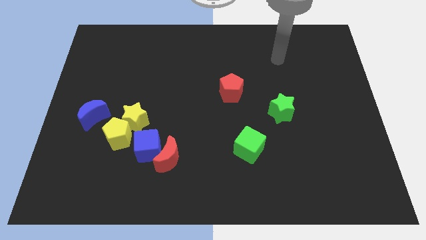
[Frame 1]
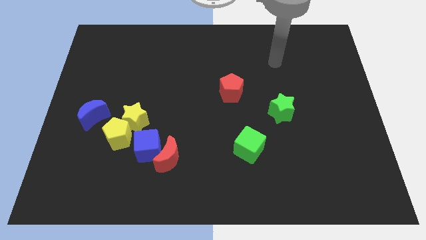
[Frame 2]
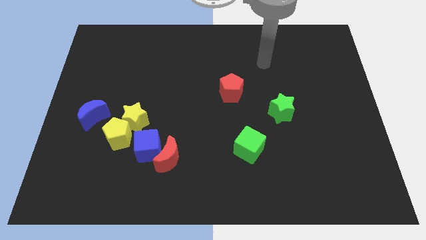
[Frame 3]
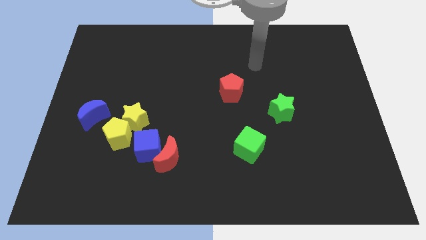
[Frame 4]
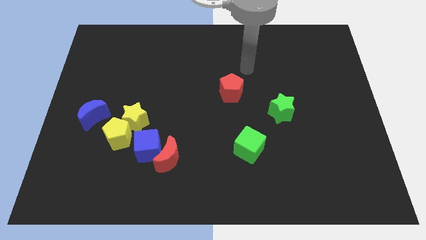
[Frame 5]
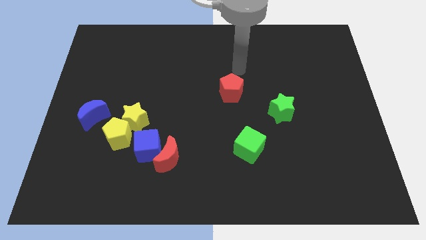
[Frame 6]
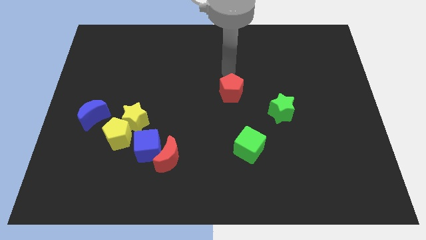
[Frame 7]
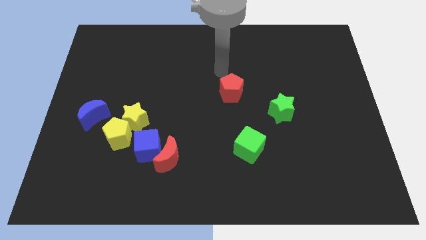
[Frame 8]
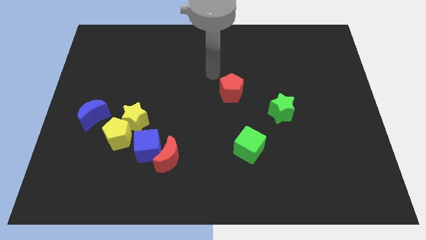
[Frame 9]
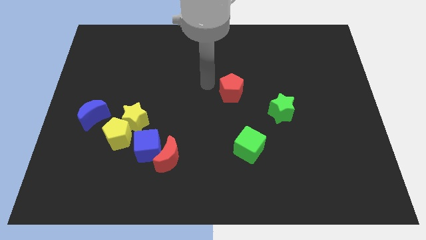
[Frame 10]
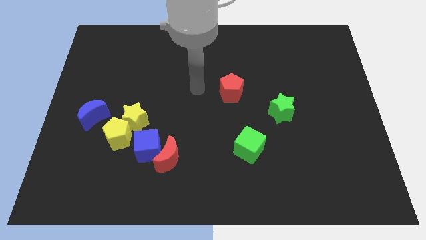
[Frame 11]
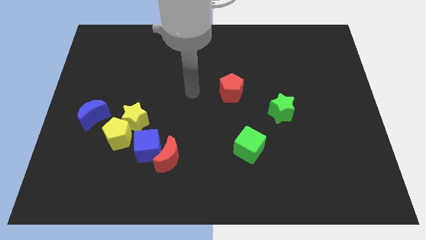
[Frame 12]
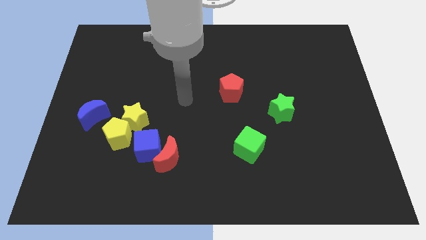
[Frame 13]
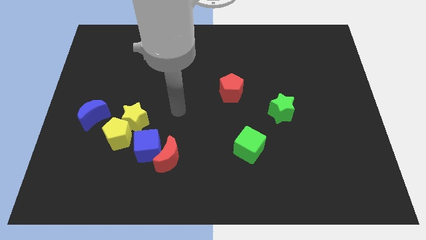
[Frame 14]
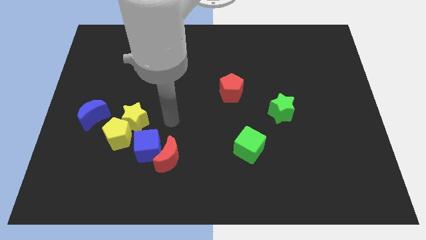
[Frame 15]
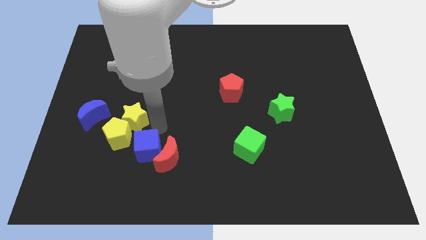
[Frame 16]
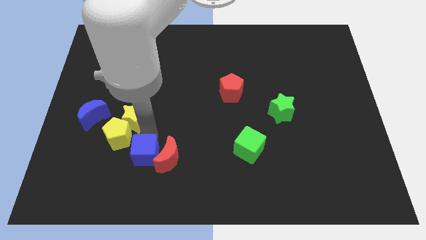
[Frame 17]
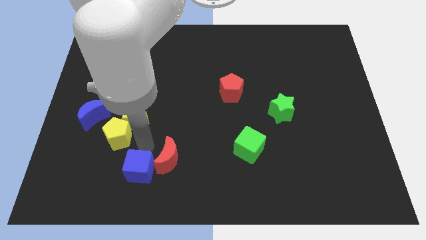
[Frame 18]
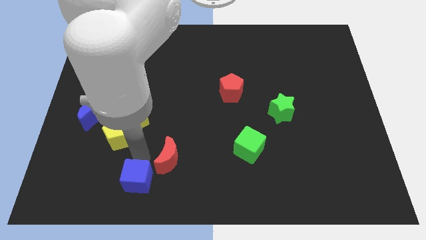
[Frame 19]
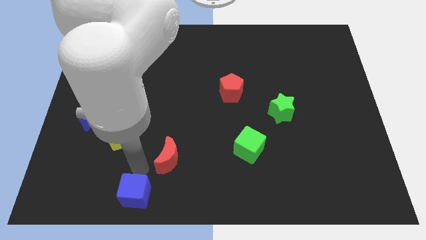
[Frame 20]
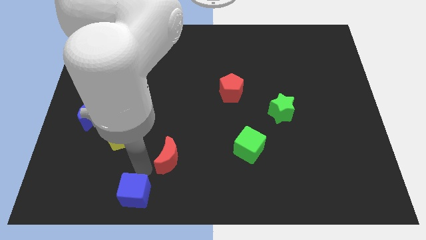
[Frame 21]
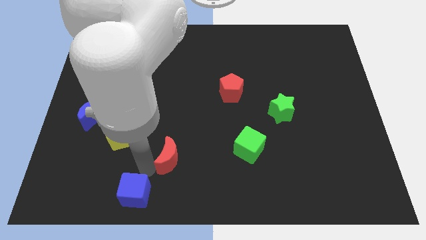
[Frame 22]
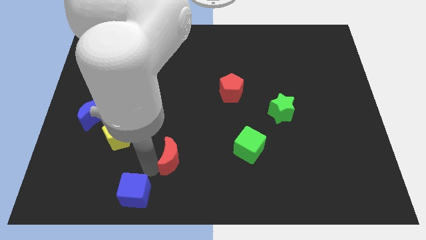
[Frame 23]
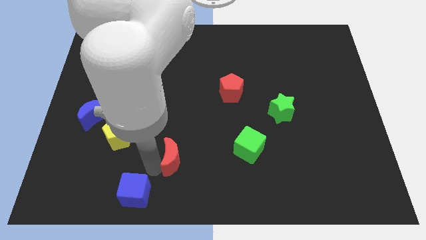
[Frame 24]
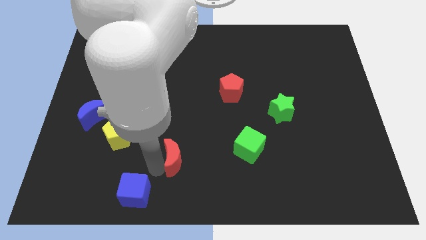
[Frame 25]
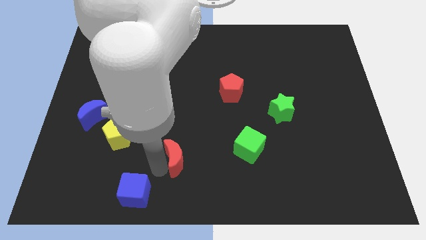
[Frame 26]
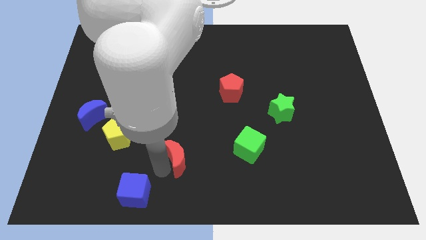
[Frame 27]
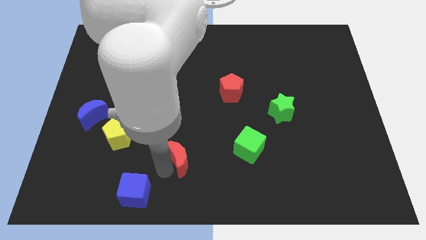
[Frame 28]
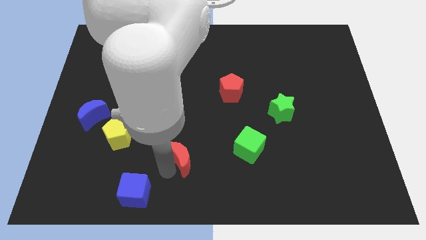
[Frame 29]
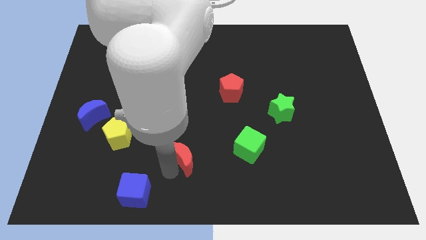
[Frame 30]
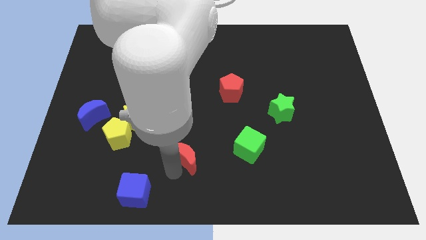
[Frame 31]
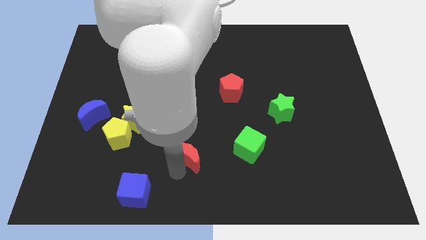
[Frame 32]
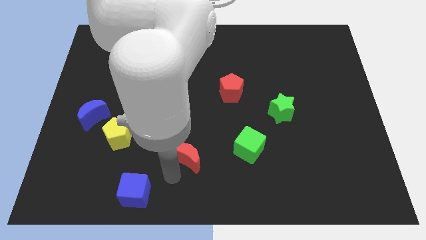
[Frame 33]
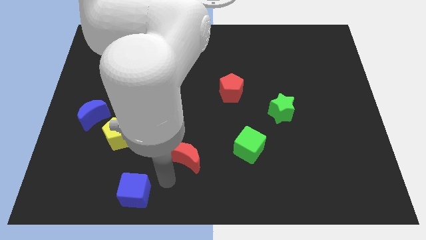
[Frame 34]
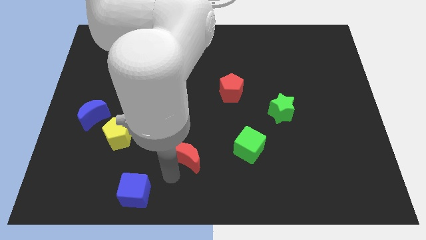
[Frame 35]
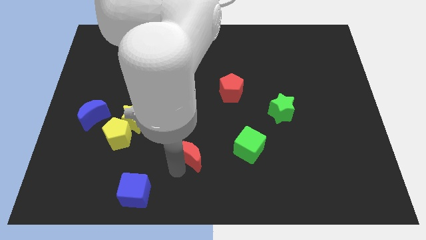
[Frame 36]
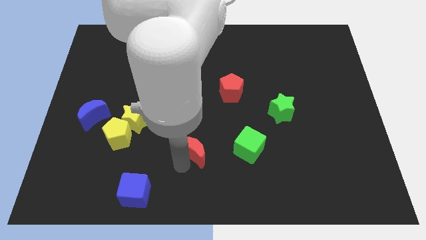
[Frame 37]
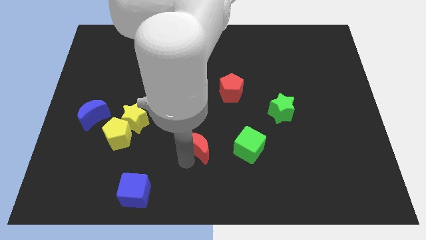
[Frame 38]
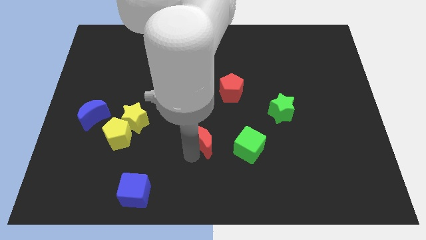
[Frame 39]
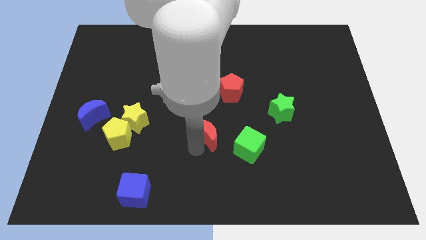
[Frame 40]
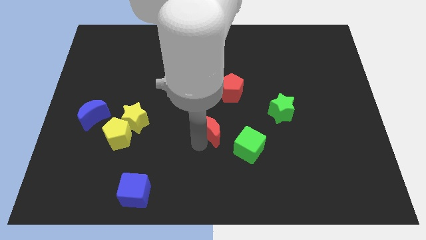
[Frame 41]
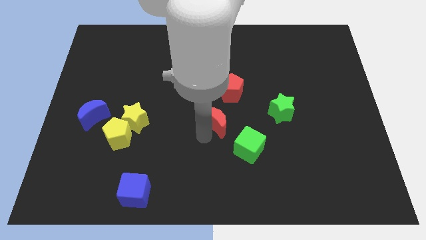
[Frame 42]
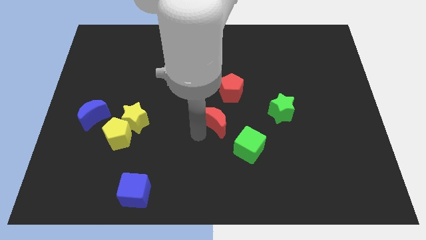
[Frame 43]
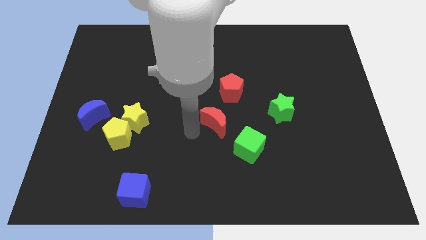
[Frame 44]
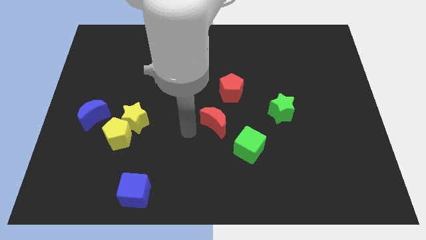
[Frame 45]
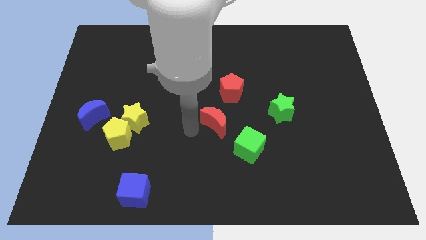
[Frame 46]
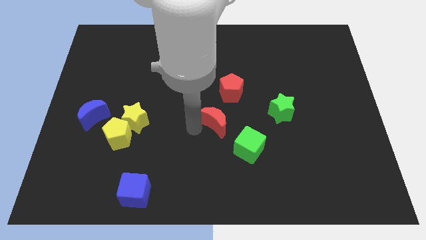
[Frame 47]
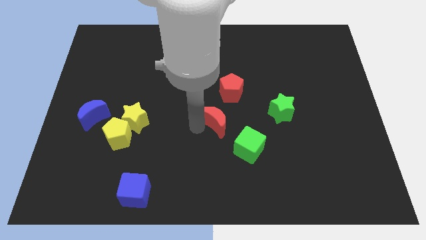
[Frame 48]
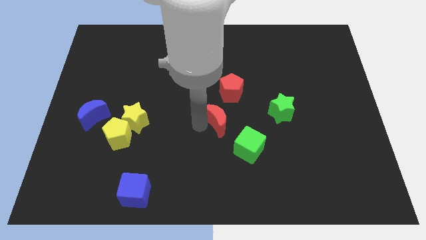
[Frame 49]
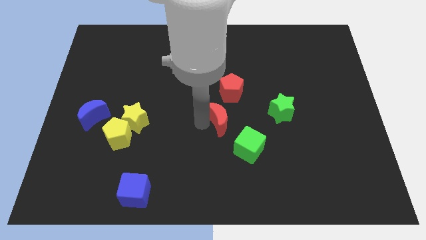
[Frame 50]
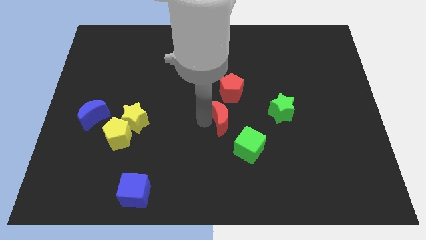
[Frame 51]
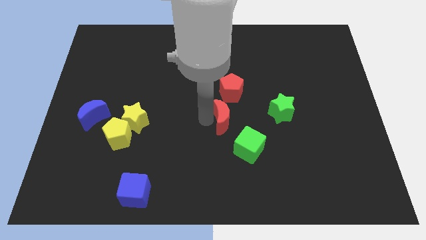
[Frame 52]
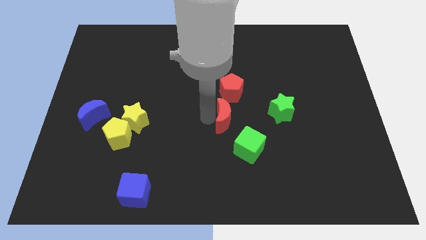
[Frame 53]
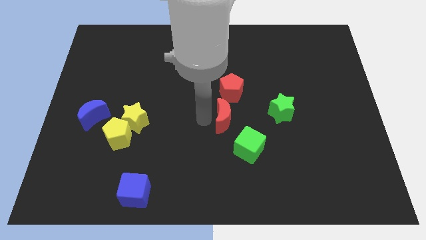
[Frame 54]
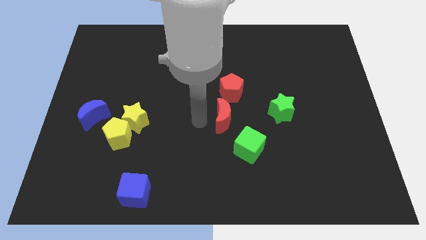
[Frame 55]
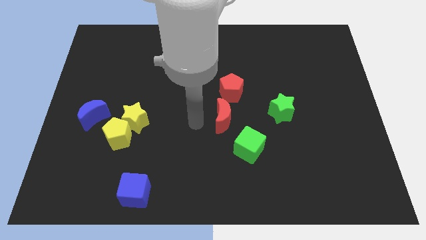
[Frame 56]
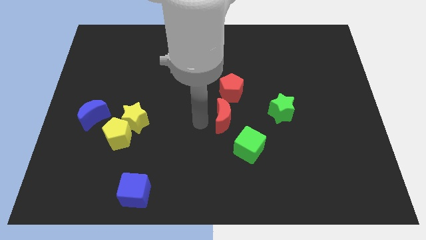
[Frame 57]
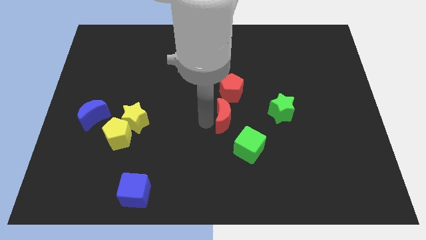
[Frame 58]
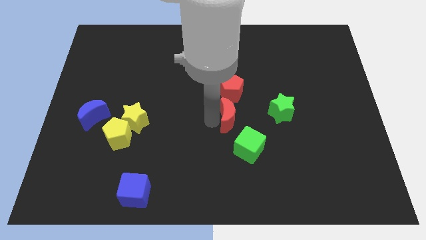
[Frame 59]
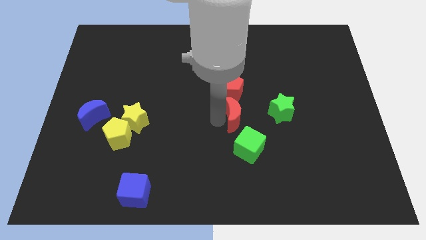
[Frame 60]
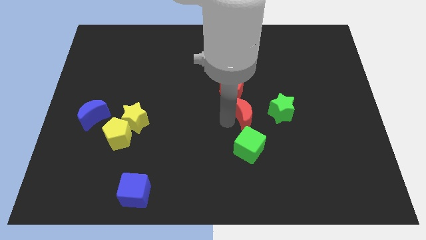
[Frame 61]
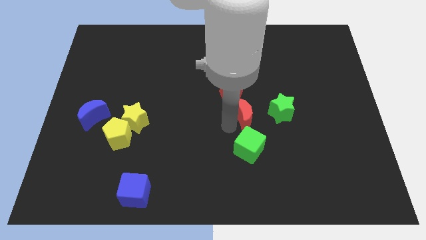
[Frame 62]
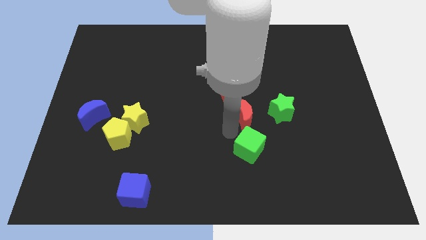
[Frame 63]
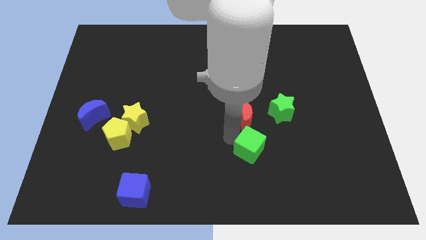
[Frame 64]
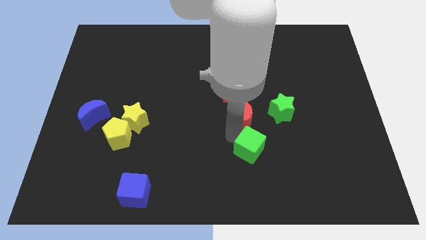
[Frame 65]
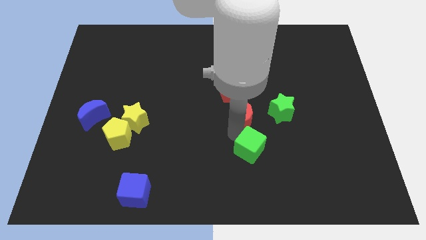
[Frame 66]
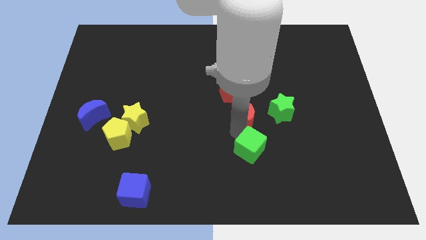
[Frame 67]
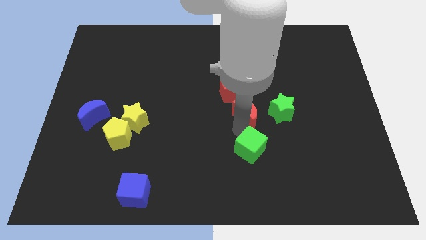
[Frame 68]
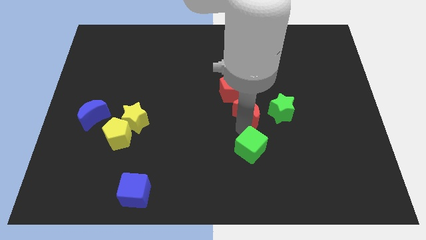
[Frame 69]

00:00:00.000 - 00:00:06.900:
move the red moon up and then right

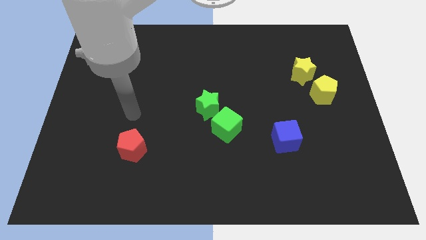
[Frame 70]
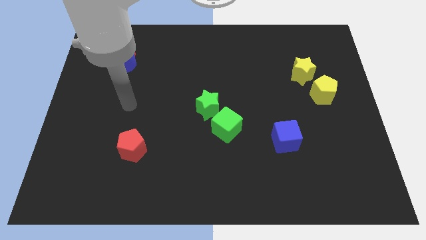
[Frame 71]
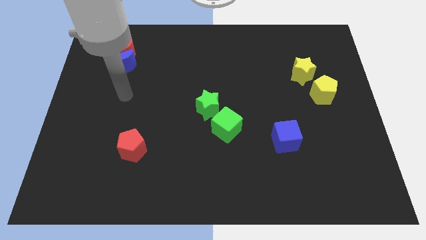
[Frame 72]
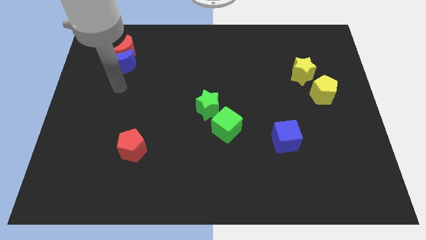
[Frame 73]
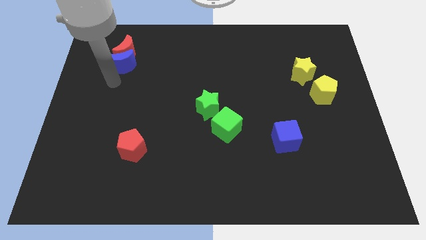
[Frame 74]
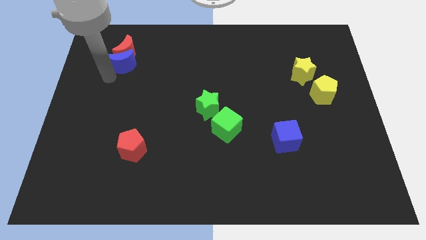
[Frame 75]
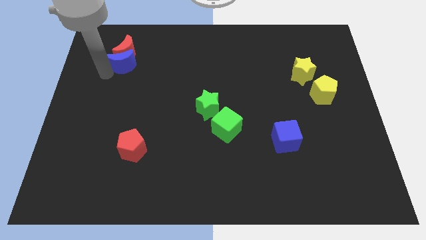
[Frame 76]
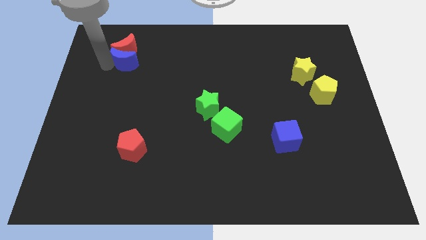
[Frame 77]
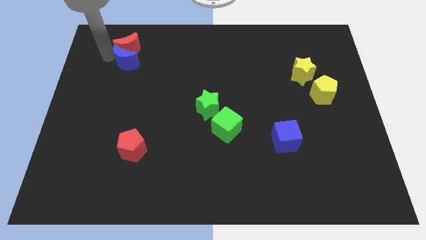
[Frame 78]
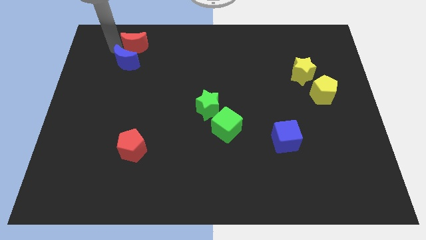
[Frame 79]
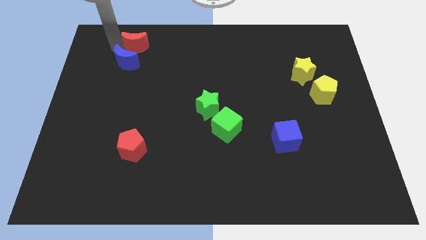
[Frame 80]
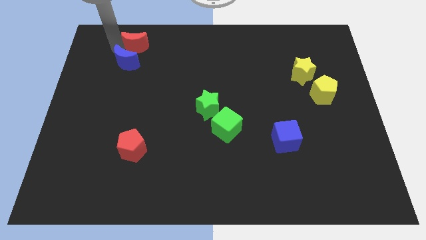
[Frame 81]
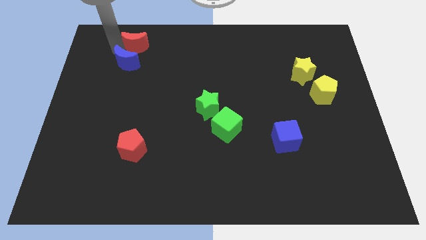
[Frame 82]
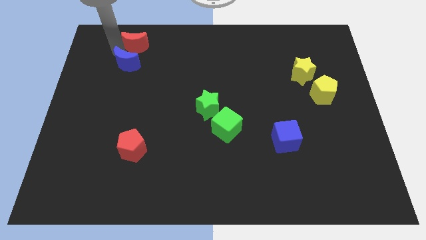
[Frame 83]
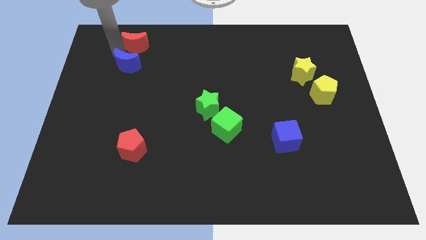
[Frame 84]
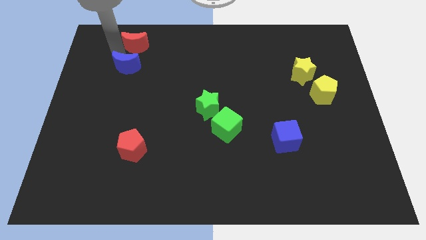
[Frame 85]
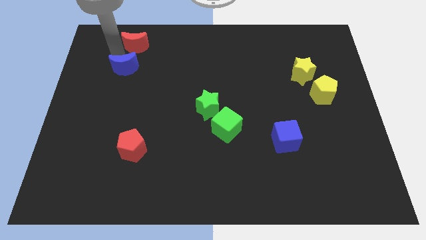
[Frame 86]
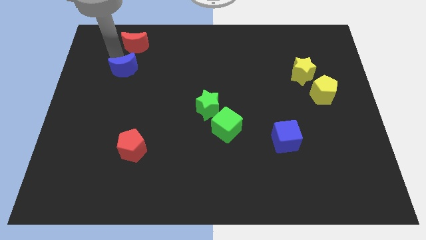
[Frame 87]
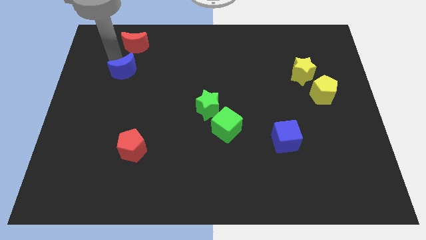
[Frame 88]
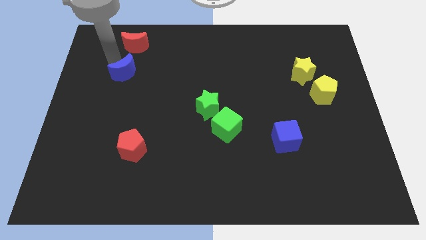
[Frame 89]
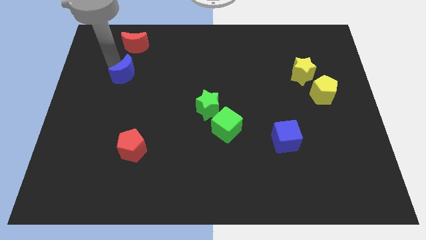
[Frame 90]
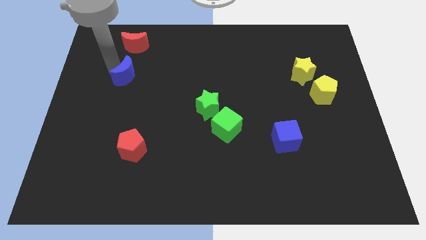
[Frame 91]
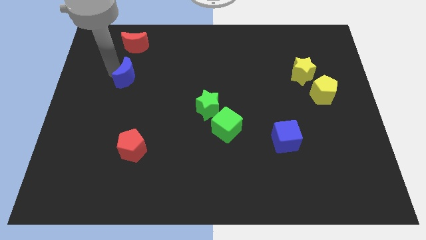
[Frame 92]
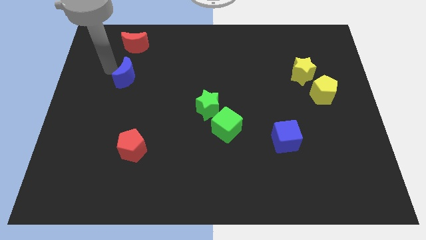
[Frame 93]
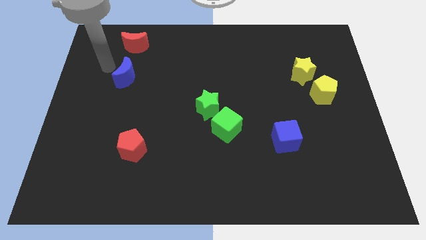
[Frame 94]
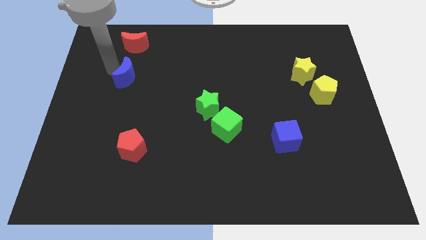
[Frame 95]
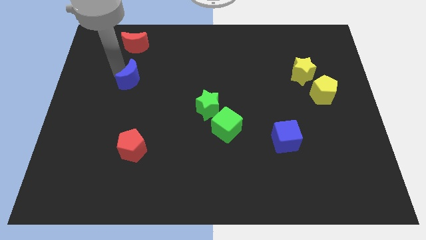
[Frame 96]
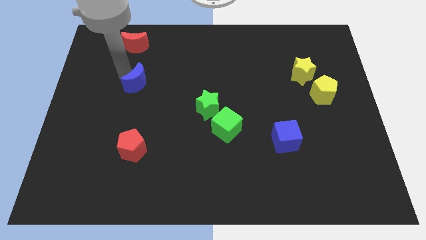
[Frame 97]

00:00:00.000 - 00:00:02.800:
slightly push the blue moon down and then right
